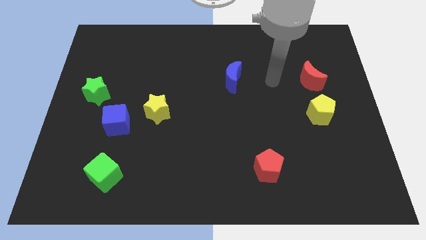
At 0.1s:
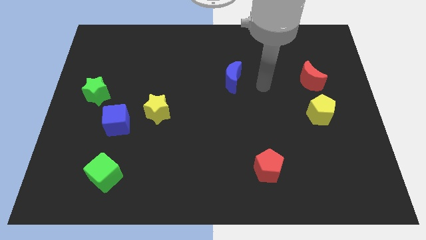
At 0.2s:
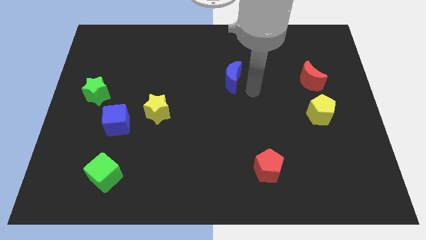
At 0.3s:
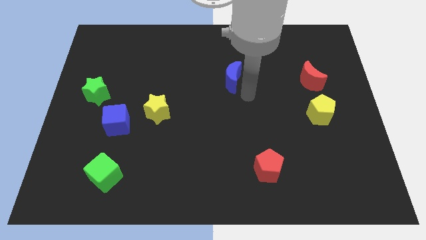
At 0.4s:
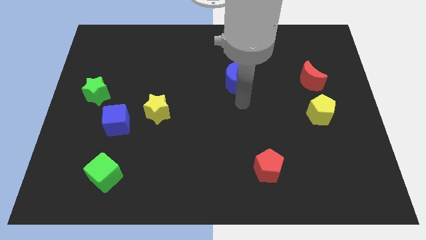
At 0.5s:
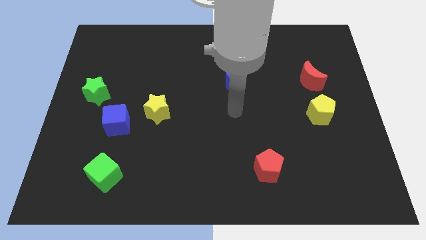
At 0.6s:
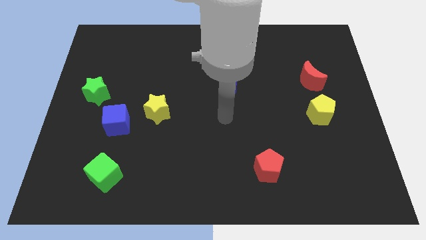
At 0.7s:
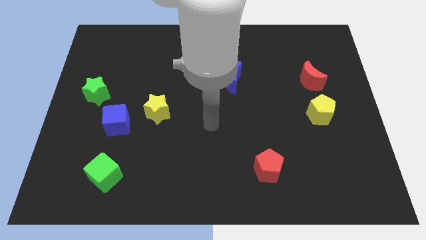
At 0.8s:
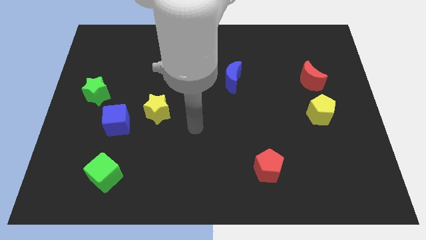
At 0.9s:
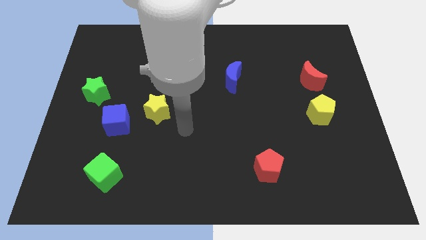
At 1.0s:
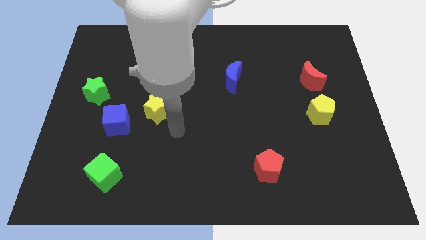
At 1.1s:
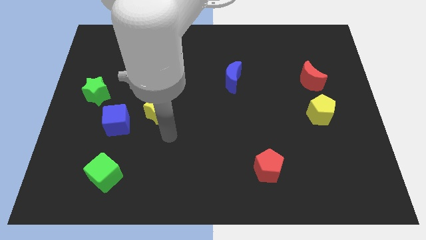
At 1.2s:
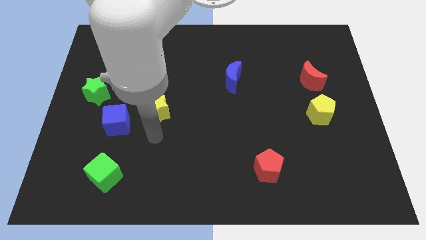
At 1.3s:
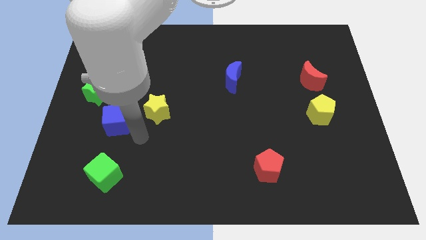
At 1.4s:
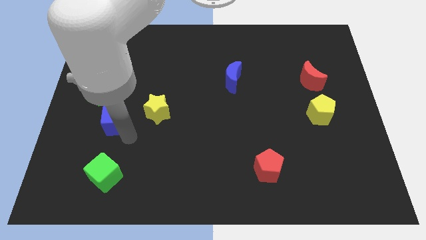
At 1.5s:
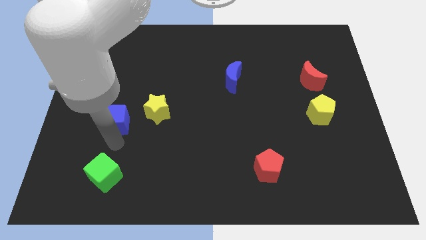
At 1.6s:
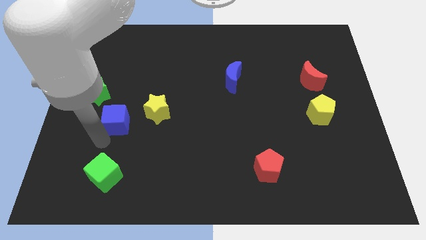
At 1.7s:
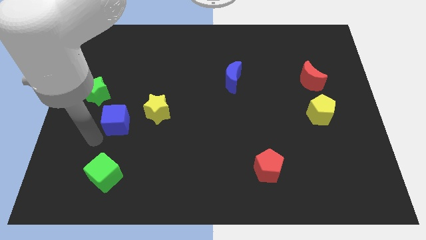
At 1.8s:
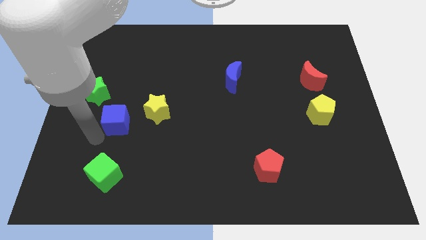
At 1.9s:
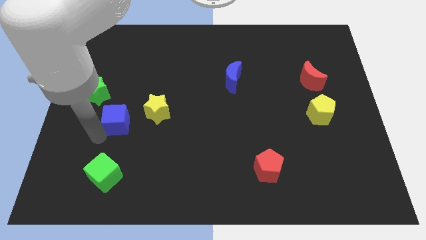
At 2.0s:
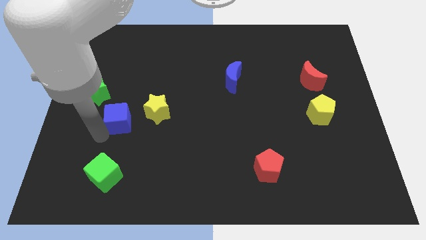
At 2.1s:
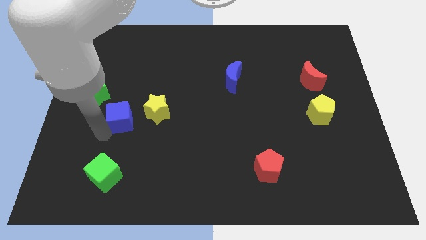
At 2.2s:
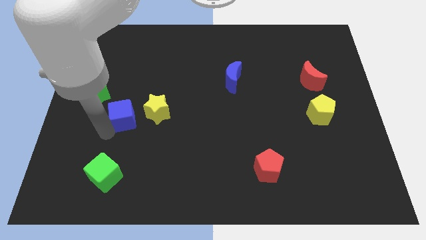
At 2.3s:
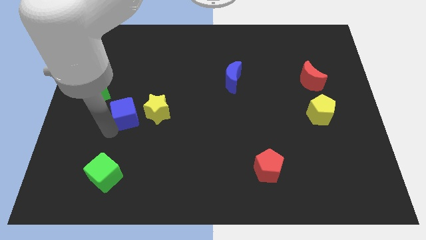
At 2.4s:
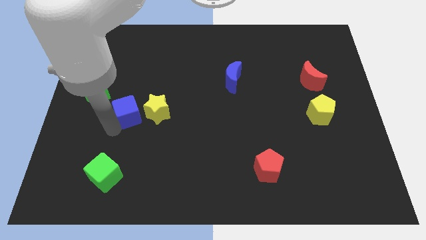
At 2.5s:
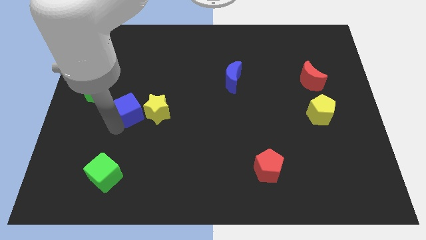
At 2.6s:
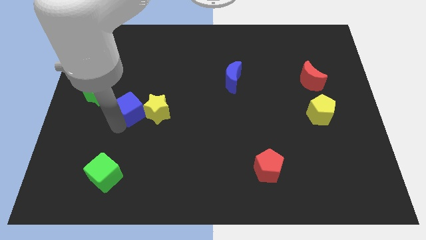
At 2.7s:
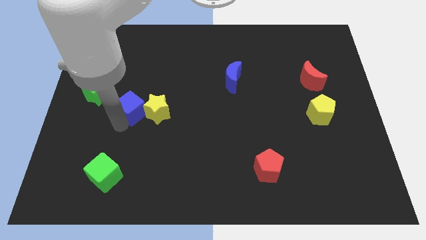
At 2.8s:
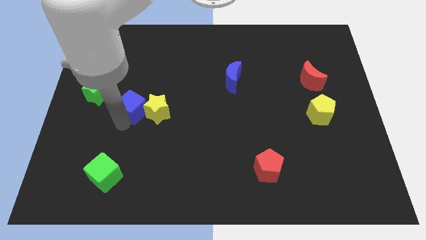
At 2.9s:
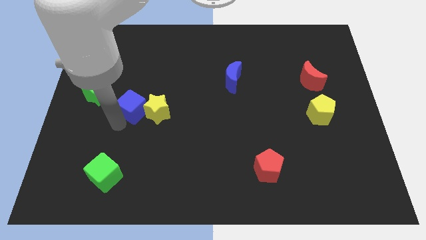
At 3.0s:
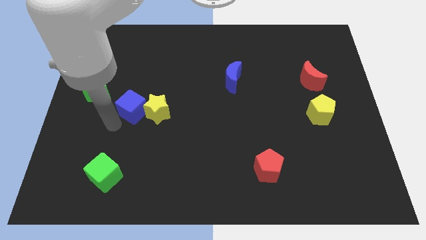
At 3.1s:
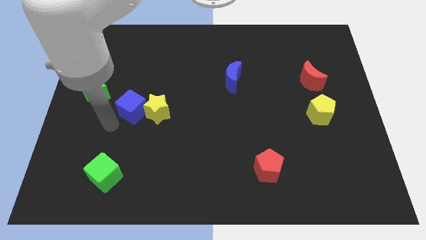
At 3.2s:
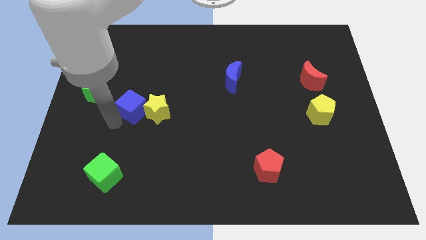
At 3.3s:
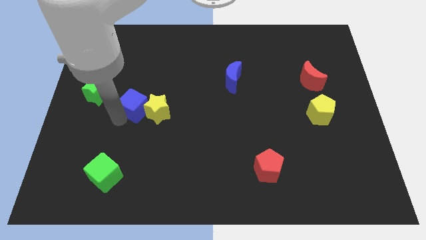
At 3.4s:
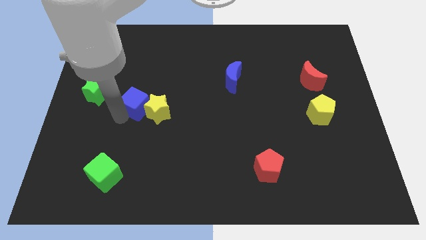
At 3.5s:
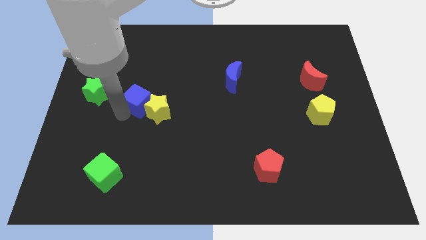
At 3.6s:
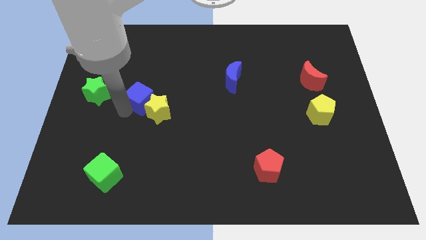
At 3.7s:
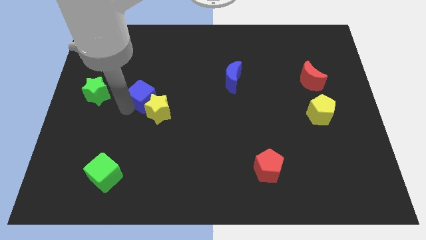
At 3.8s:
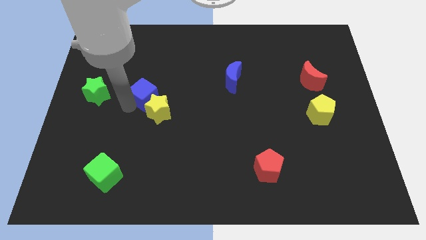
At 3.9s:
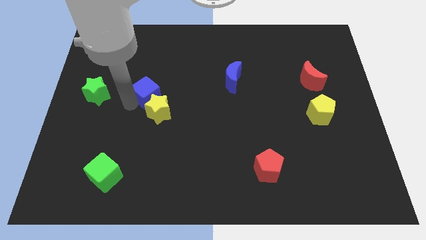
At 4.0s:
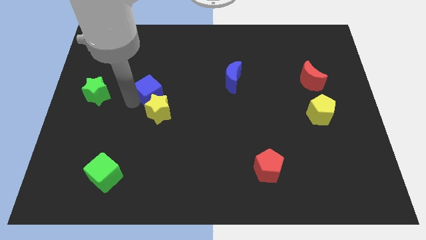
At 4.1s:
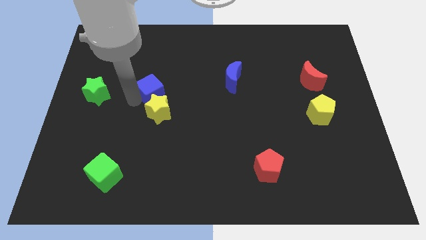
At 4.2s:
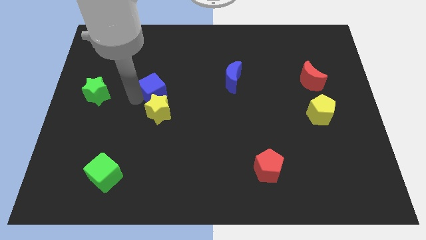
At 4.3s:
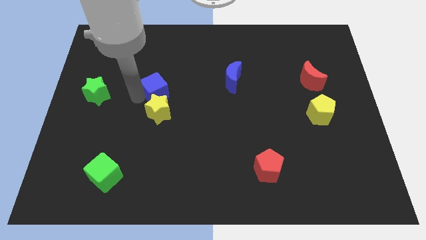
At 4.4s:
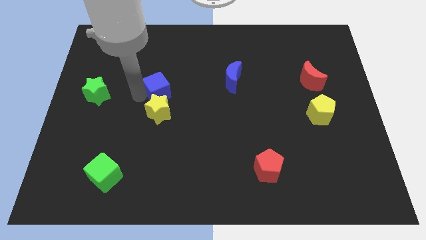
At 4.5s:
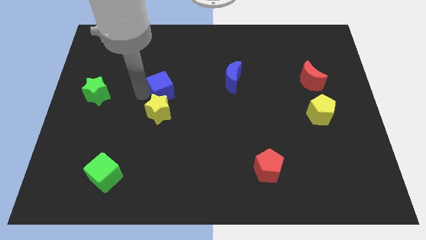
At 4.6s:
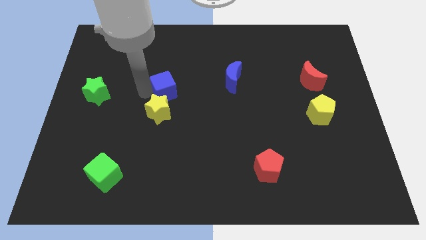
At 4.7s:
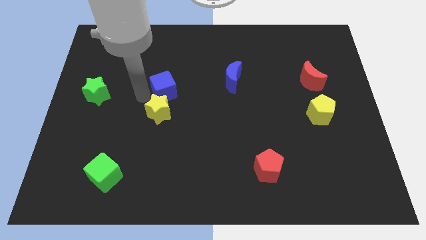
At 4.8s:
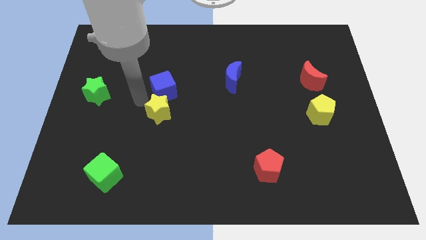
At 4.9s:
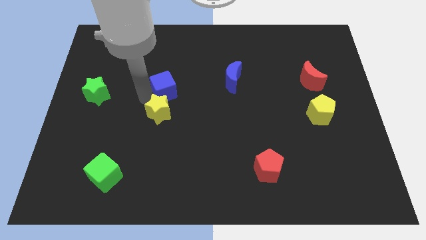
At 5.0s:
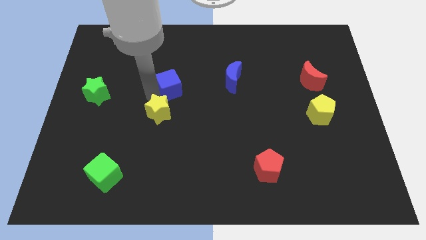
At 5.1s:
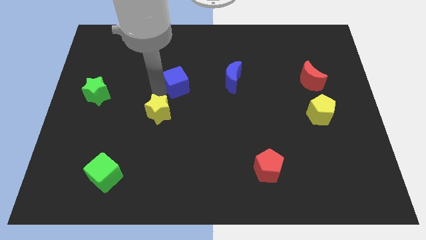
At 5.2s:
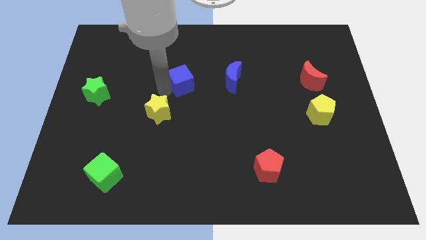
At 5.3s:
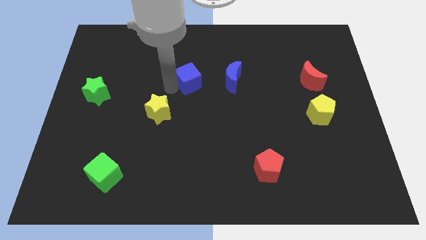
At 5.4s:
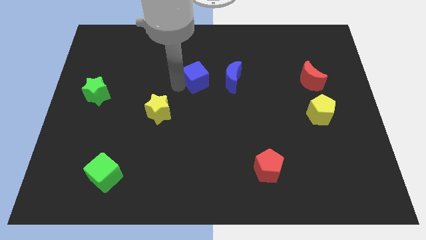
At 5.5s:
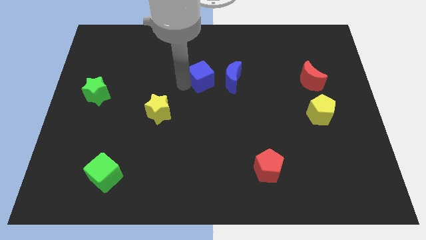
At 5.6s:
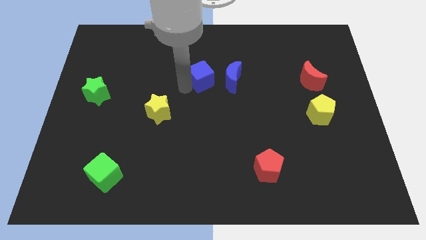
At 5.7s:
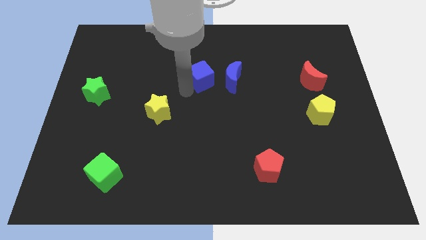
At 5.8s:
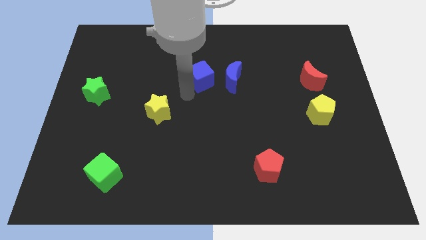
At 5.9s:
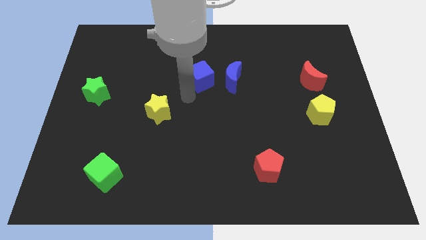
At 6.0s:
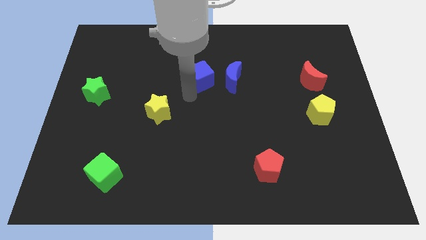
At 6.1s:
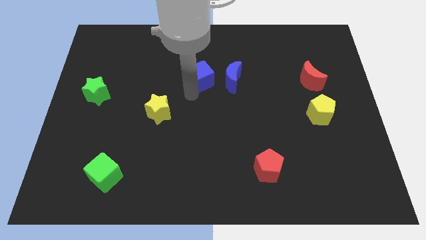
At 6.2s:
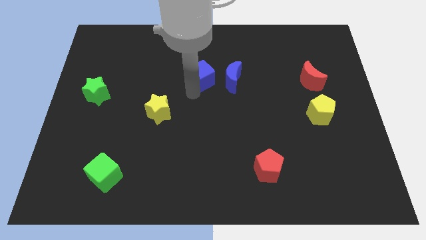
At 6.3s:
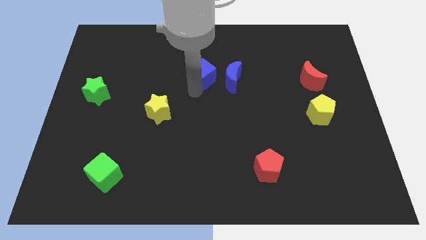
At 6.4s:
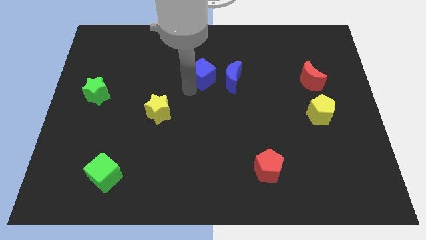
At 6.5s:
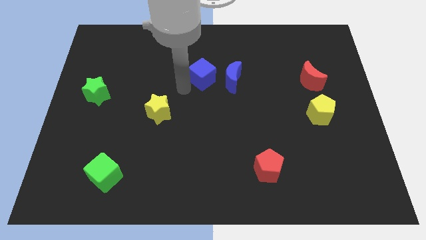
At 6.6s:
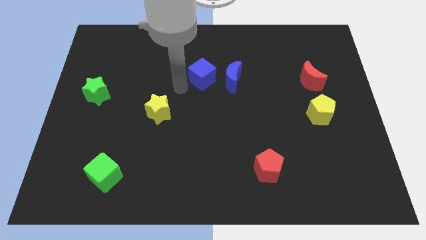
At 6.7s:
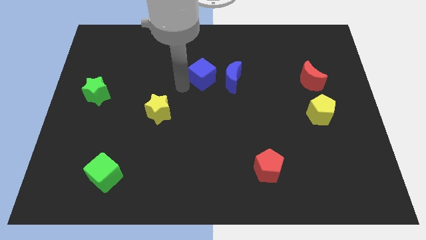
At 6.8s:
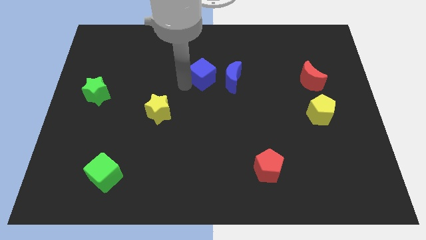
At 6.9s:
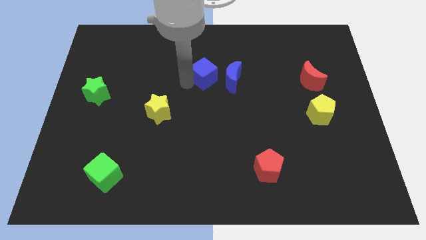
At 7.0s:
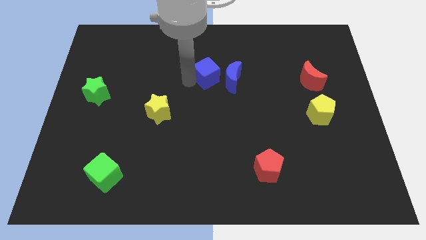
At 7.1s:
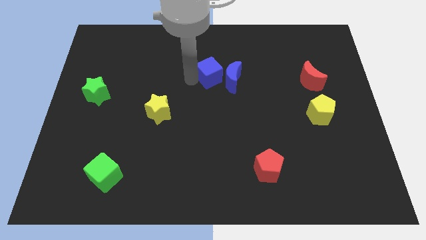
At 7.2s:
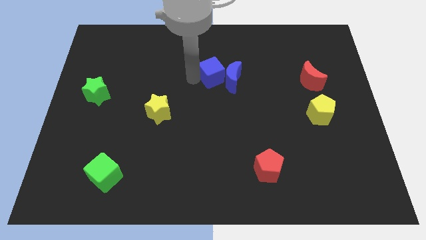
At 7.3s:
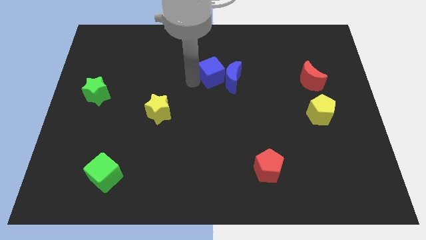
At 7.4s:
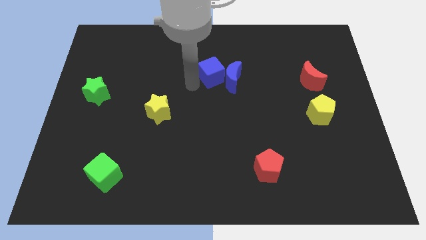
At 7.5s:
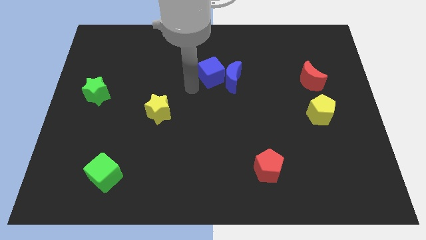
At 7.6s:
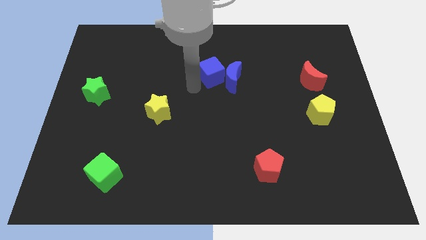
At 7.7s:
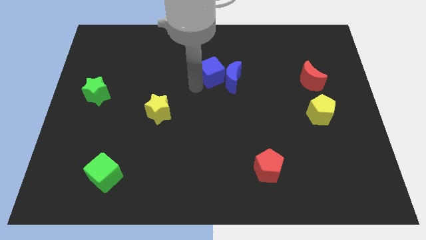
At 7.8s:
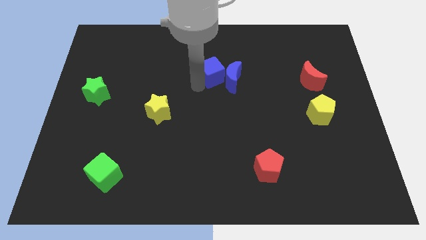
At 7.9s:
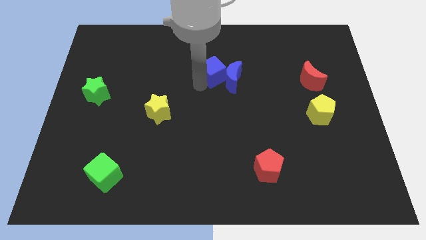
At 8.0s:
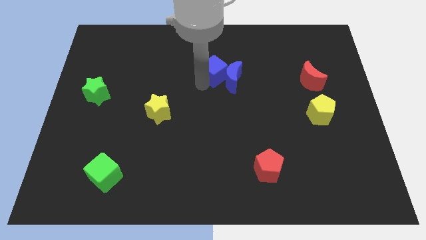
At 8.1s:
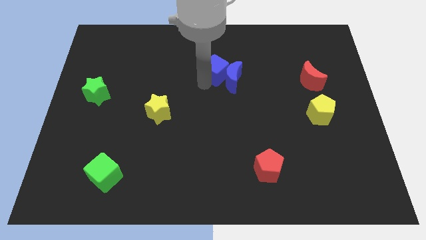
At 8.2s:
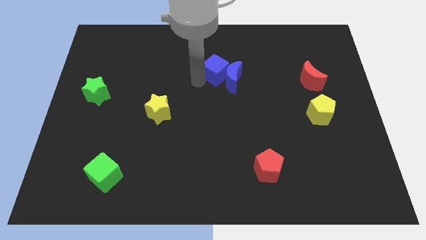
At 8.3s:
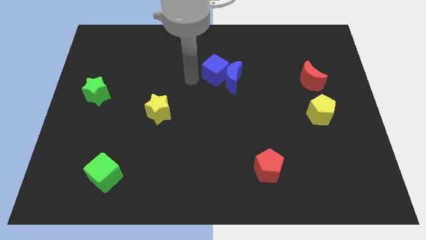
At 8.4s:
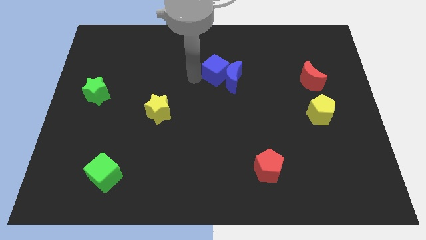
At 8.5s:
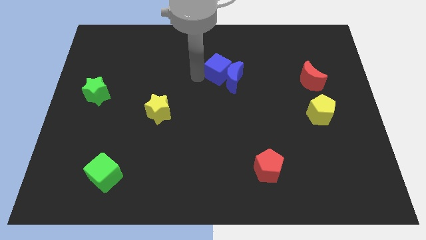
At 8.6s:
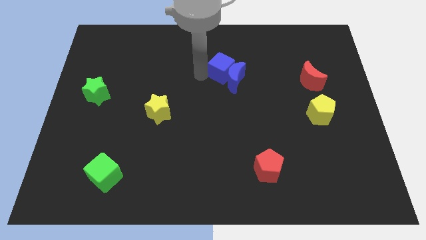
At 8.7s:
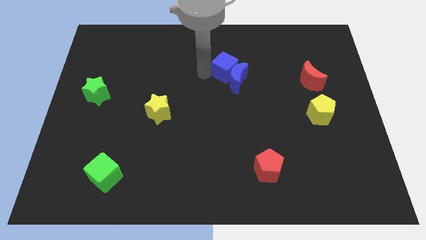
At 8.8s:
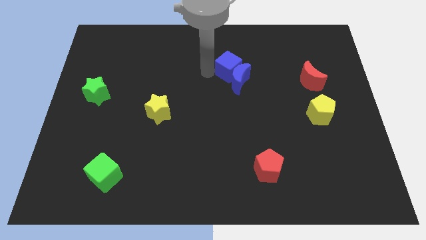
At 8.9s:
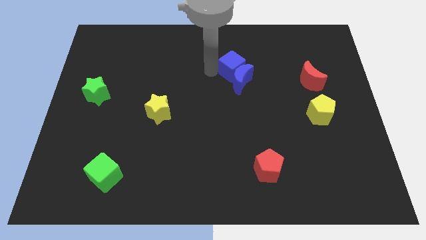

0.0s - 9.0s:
move the blue cube to the top right of the blue moon
